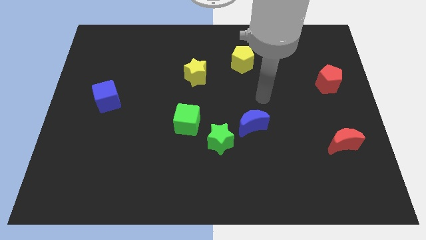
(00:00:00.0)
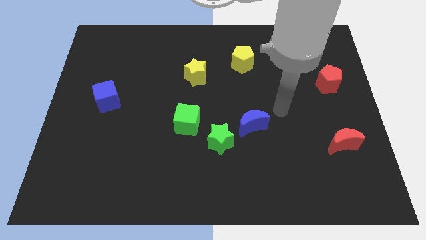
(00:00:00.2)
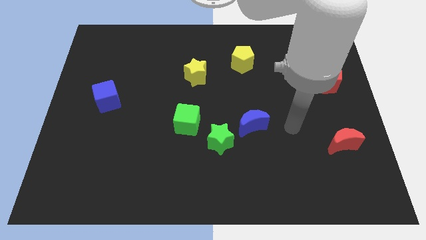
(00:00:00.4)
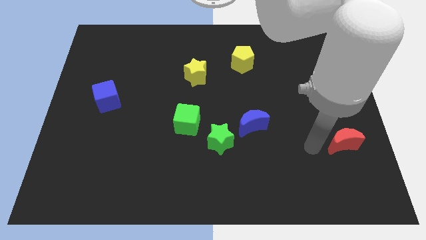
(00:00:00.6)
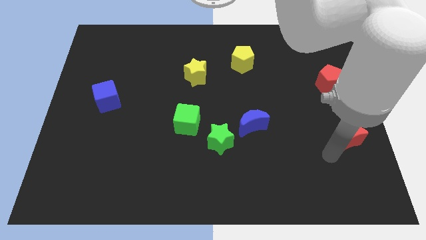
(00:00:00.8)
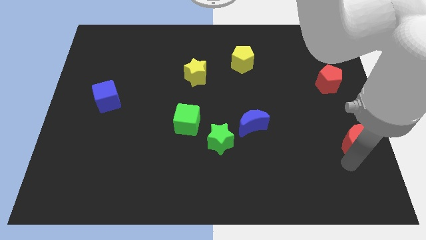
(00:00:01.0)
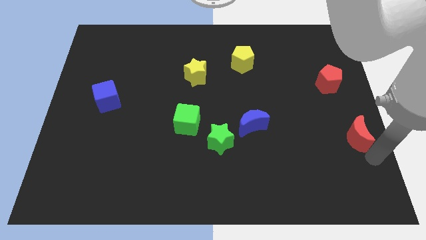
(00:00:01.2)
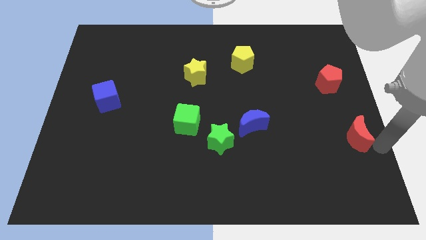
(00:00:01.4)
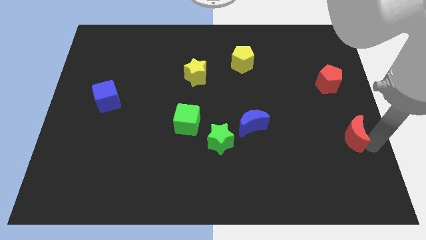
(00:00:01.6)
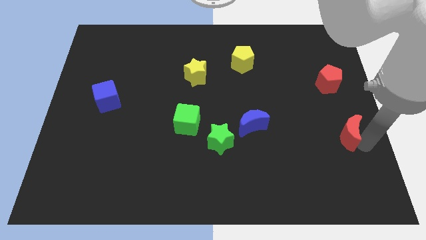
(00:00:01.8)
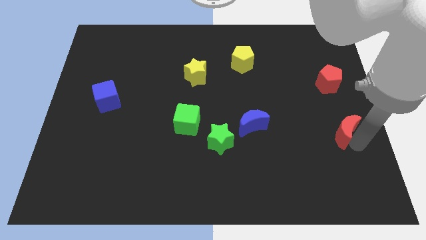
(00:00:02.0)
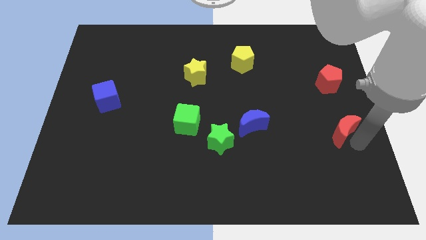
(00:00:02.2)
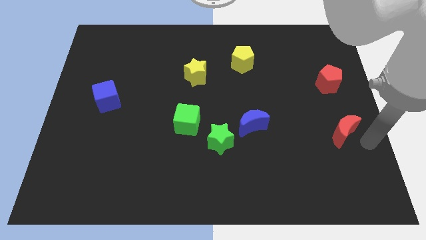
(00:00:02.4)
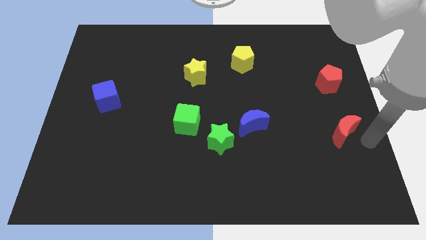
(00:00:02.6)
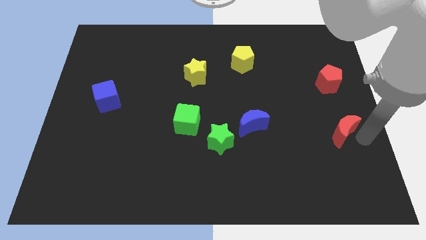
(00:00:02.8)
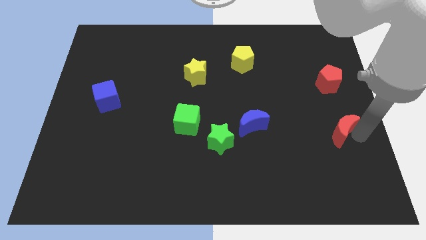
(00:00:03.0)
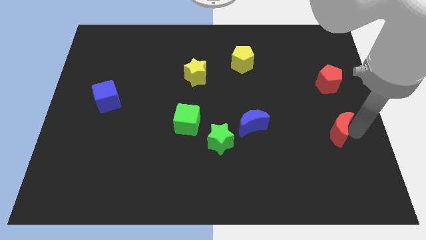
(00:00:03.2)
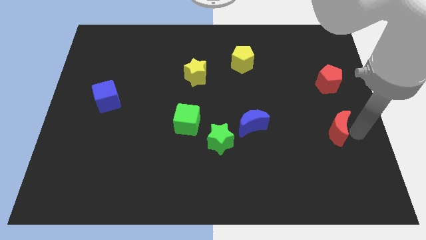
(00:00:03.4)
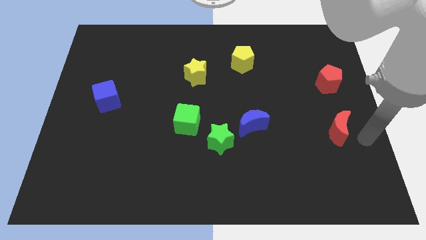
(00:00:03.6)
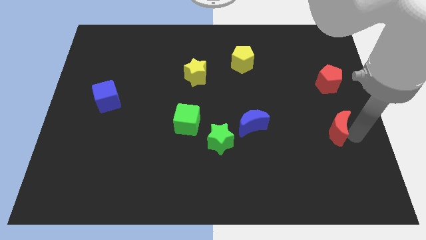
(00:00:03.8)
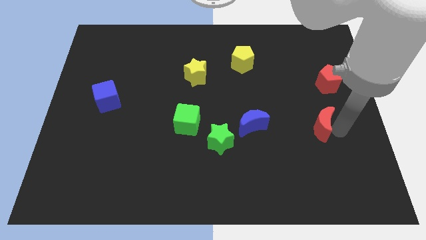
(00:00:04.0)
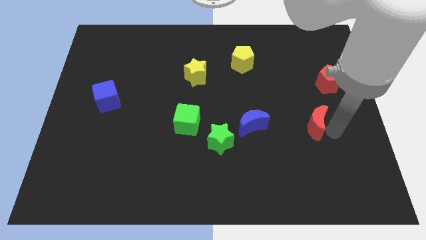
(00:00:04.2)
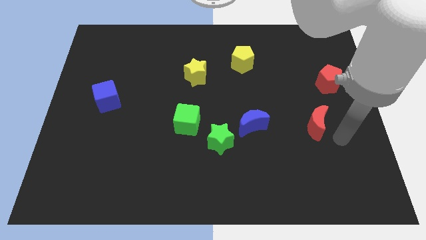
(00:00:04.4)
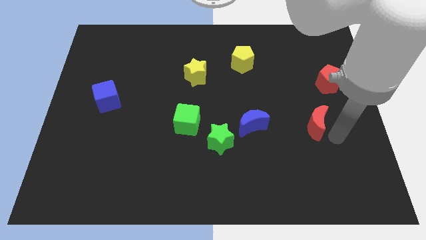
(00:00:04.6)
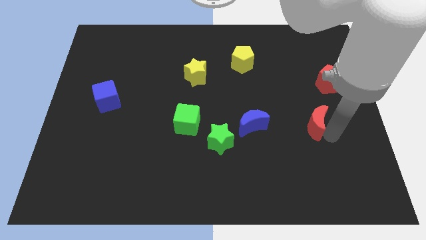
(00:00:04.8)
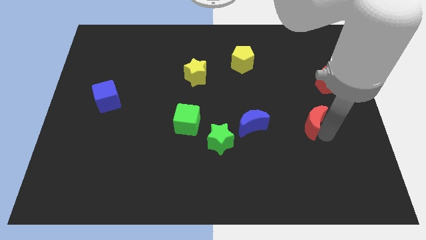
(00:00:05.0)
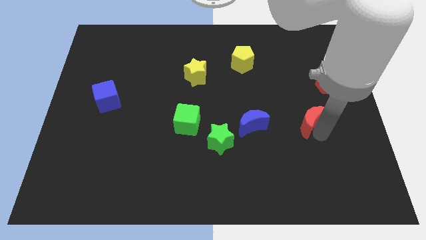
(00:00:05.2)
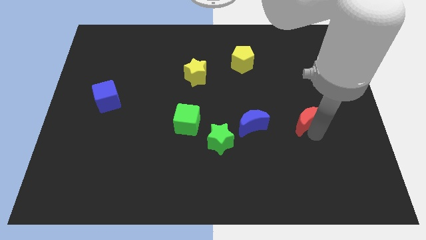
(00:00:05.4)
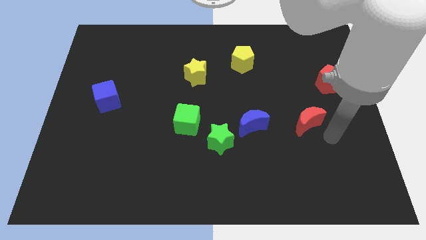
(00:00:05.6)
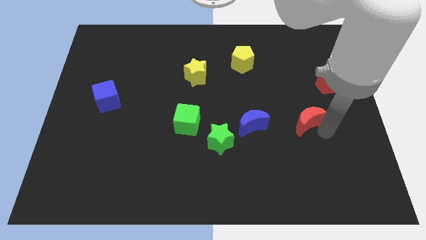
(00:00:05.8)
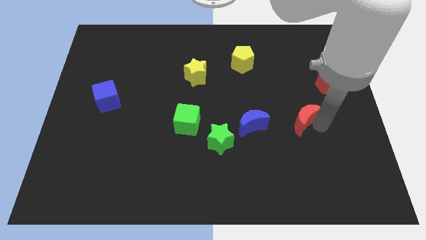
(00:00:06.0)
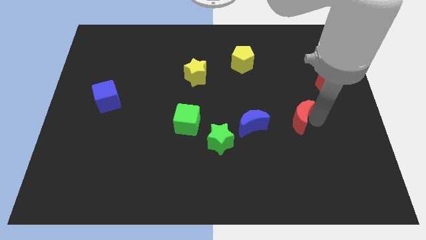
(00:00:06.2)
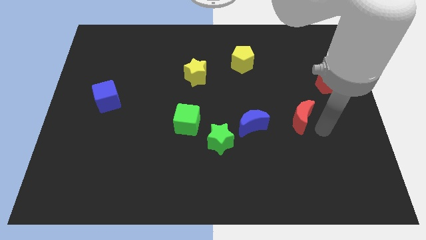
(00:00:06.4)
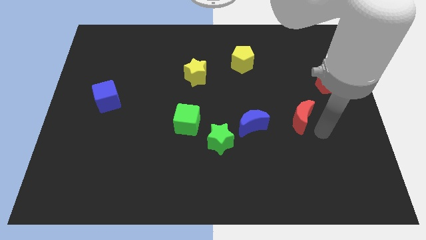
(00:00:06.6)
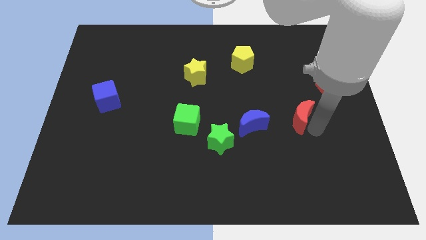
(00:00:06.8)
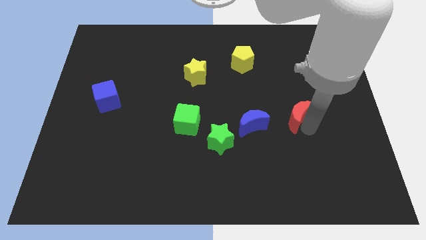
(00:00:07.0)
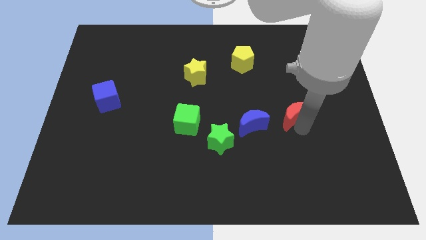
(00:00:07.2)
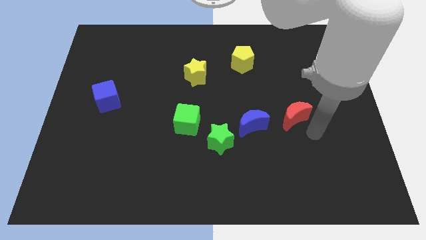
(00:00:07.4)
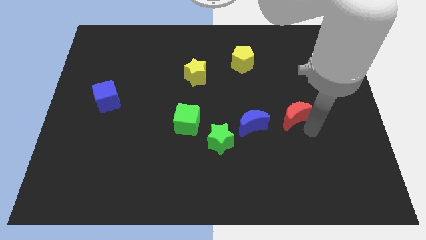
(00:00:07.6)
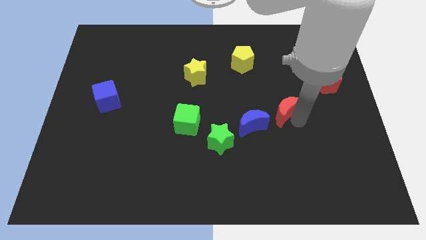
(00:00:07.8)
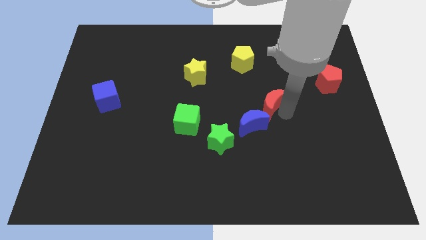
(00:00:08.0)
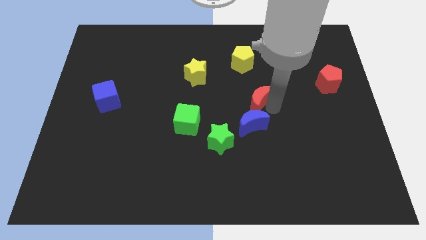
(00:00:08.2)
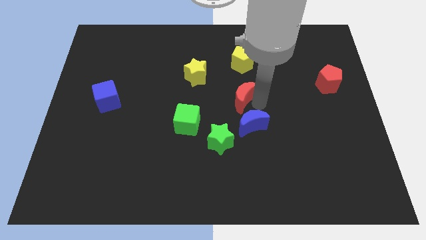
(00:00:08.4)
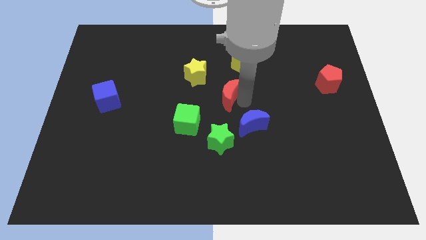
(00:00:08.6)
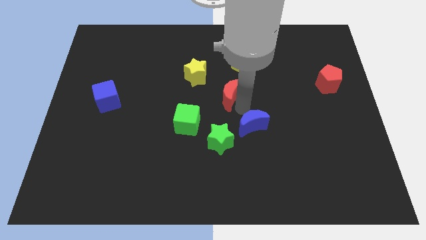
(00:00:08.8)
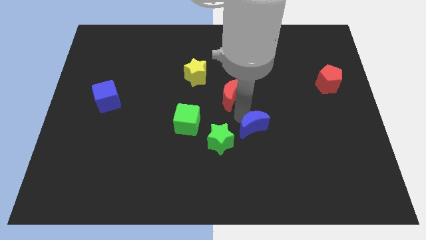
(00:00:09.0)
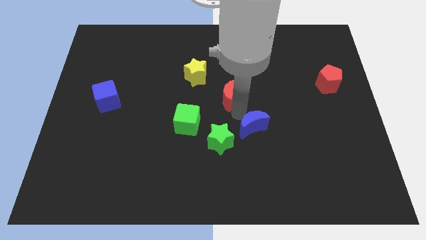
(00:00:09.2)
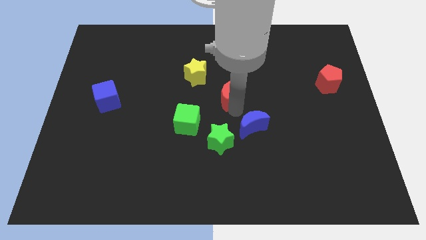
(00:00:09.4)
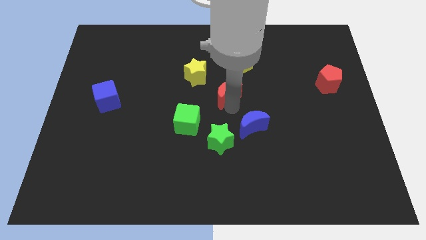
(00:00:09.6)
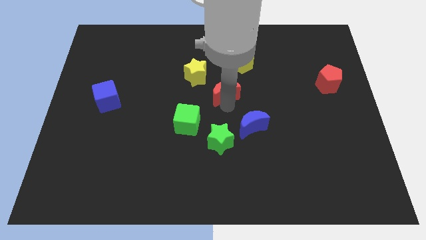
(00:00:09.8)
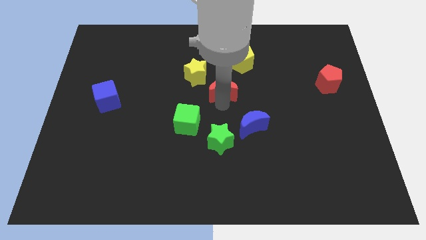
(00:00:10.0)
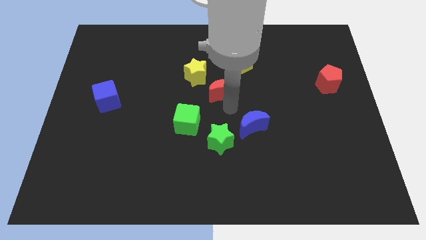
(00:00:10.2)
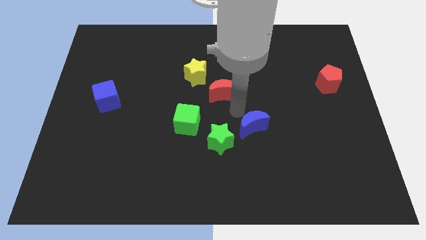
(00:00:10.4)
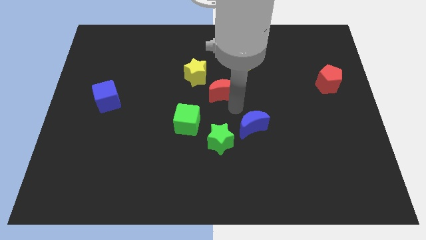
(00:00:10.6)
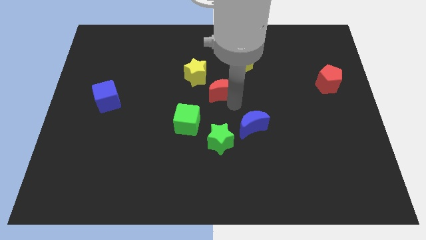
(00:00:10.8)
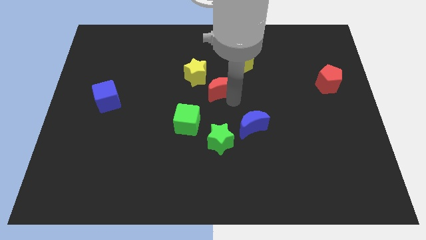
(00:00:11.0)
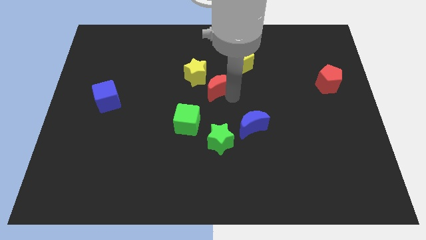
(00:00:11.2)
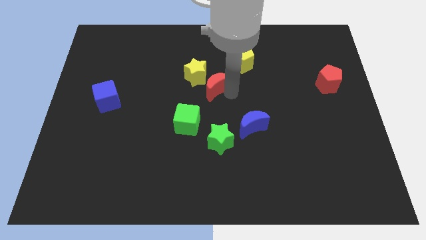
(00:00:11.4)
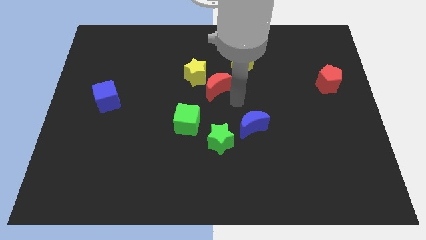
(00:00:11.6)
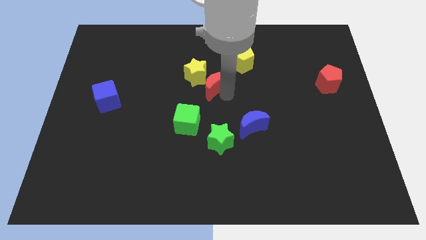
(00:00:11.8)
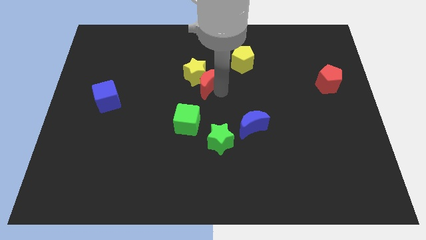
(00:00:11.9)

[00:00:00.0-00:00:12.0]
push the red moon close to the yellow star
